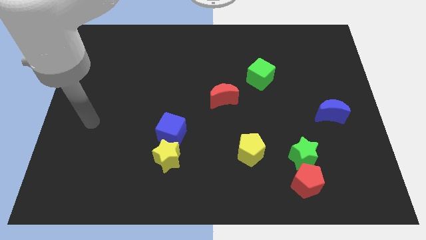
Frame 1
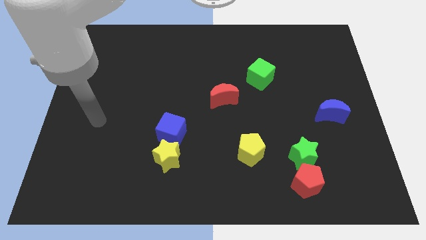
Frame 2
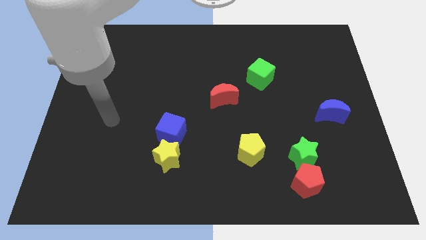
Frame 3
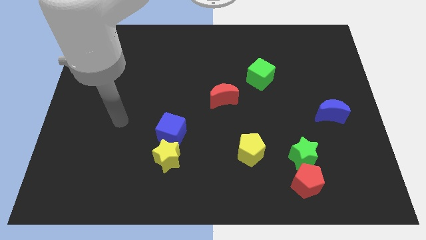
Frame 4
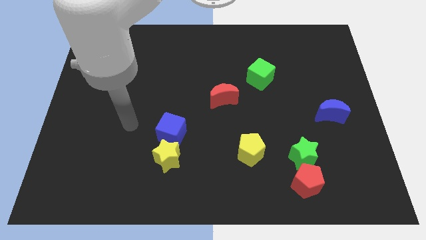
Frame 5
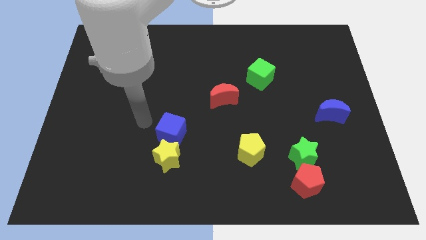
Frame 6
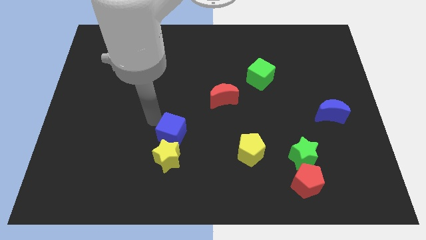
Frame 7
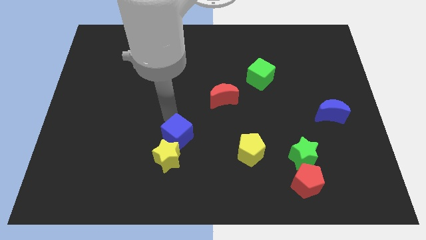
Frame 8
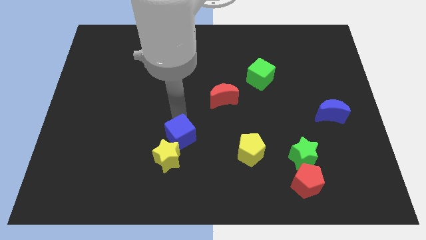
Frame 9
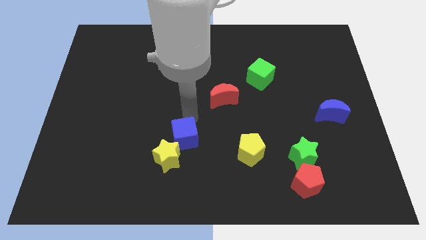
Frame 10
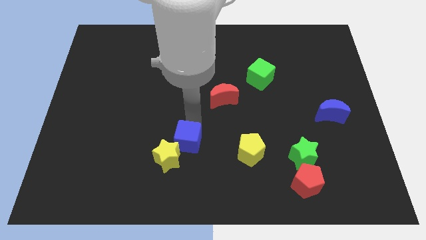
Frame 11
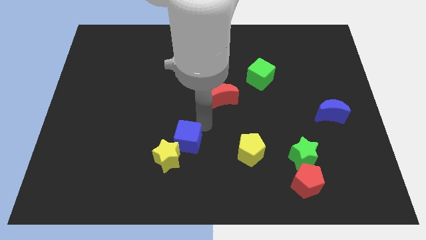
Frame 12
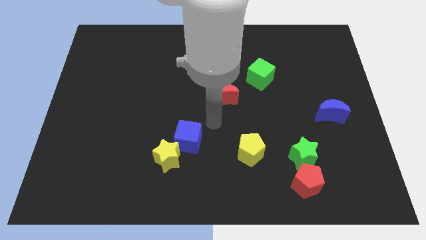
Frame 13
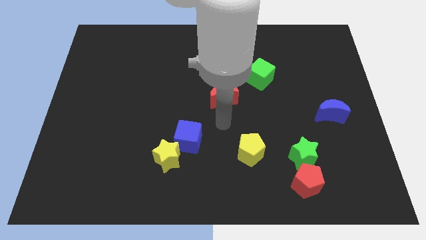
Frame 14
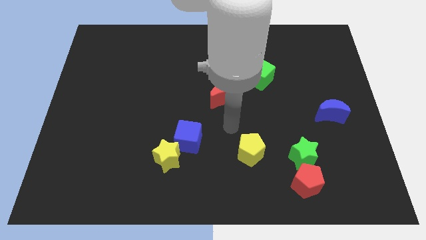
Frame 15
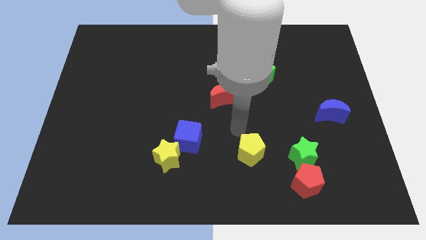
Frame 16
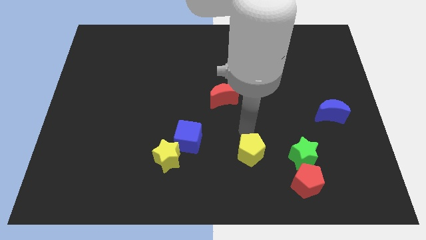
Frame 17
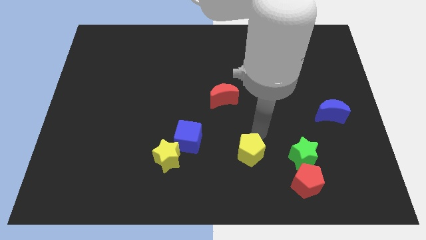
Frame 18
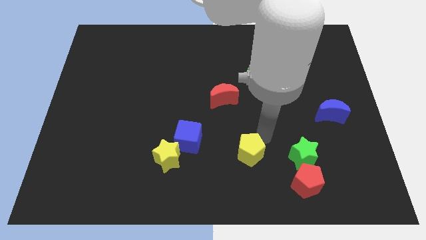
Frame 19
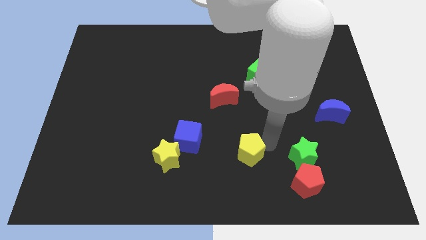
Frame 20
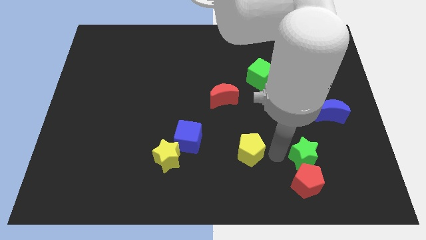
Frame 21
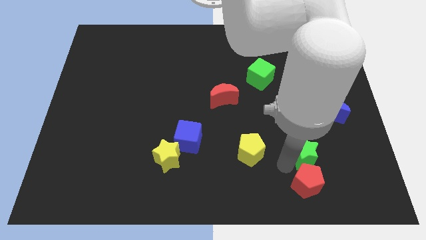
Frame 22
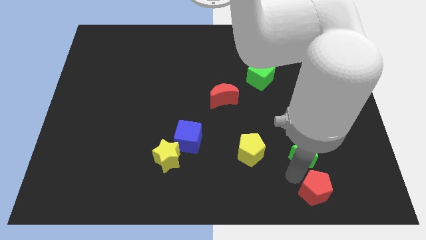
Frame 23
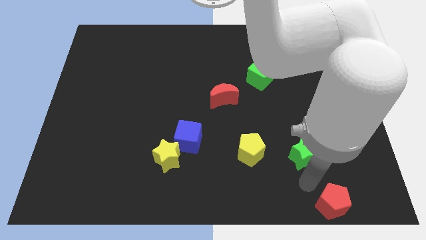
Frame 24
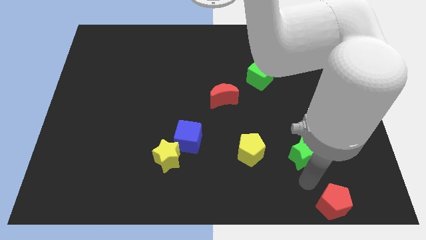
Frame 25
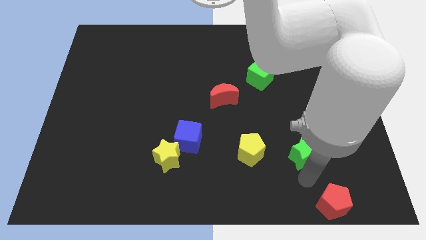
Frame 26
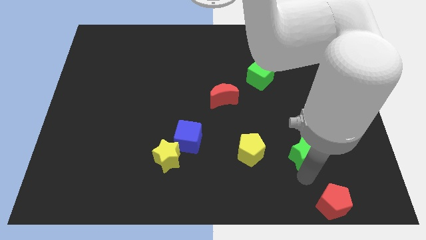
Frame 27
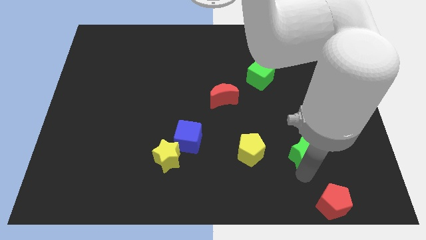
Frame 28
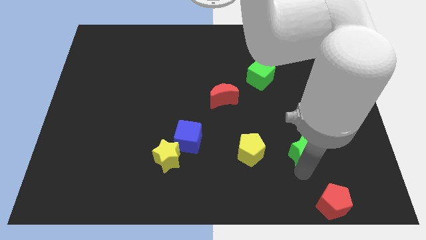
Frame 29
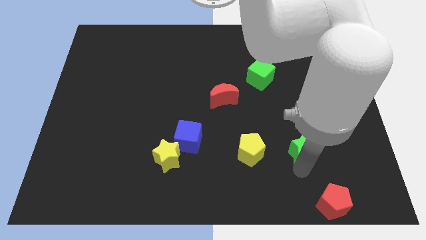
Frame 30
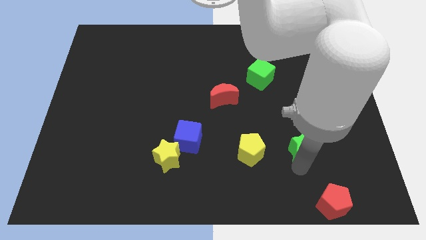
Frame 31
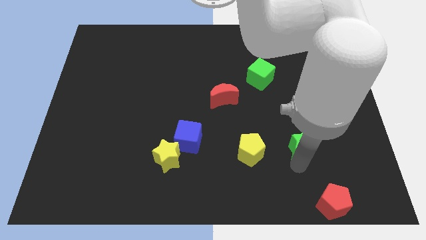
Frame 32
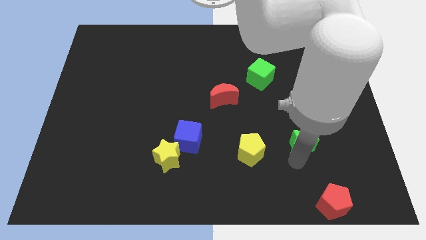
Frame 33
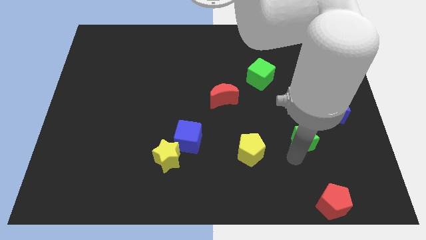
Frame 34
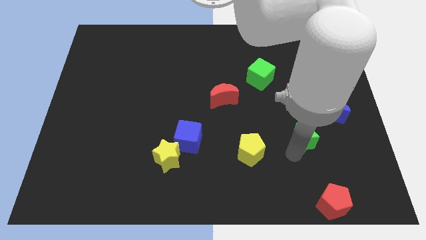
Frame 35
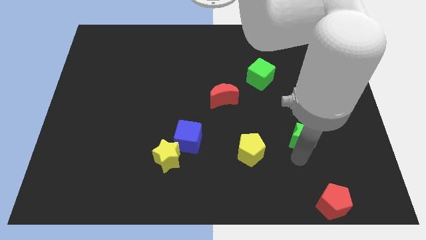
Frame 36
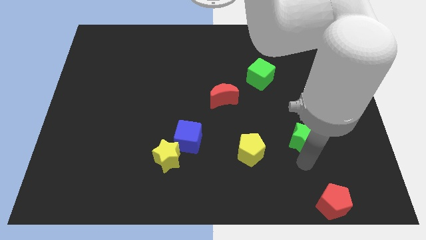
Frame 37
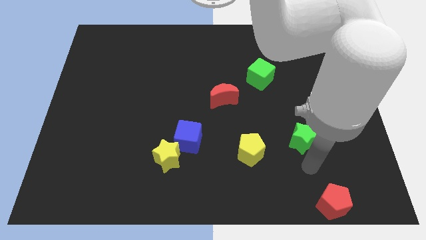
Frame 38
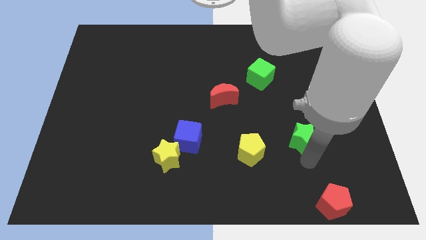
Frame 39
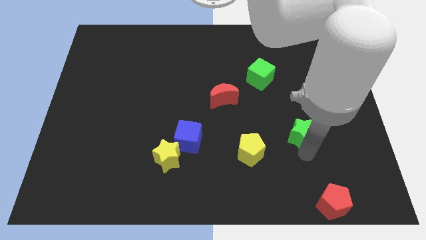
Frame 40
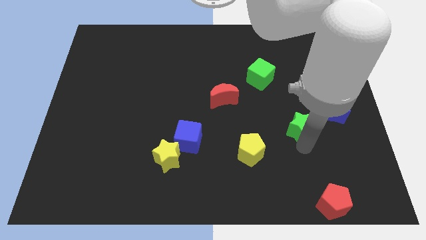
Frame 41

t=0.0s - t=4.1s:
move the green star upwards a little

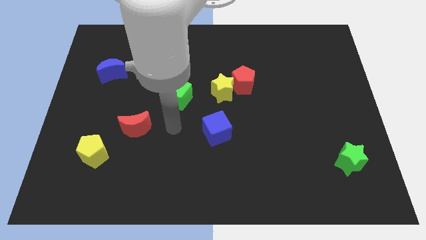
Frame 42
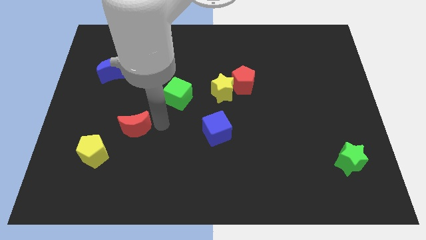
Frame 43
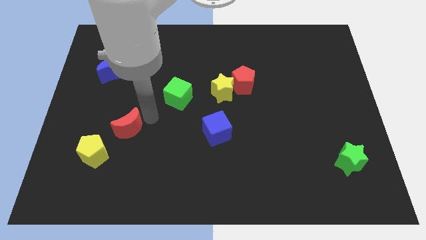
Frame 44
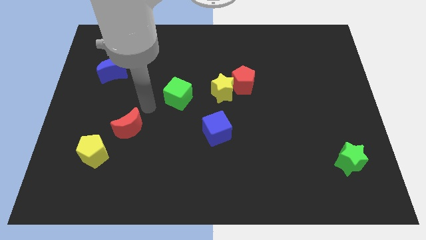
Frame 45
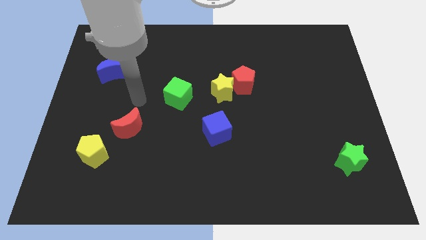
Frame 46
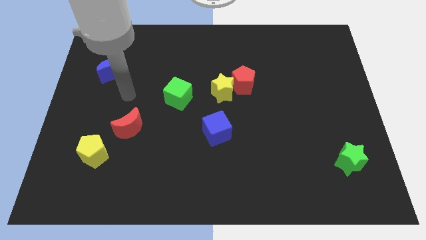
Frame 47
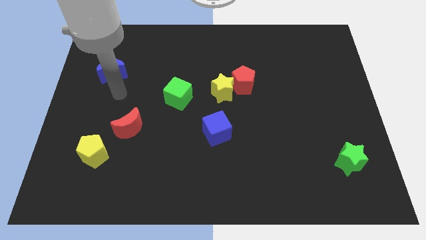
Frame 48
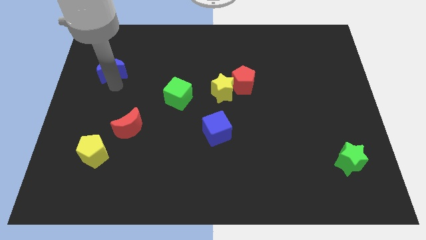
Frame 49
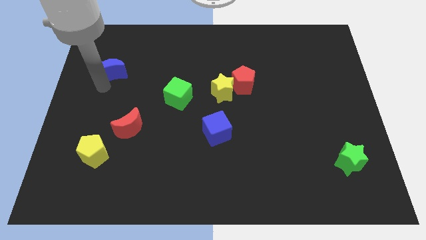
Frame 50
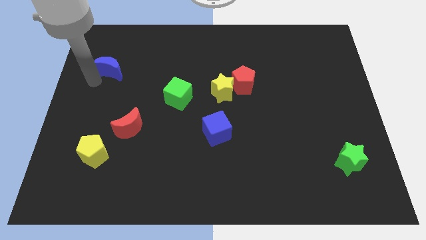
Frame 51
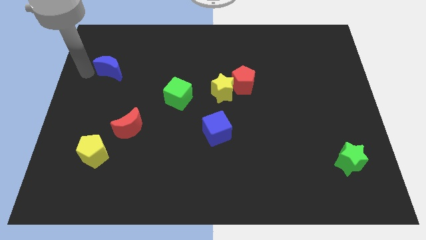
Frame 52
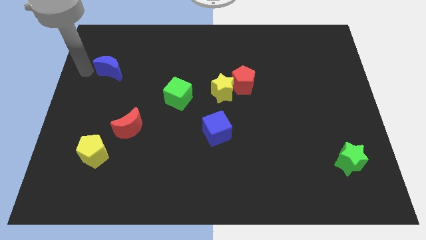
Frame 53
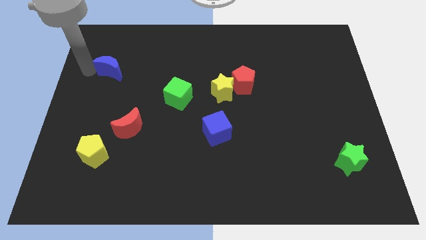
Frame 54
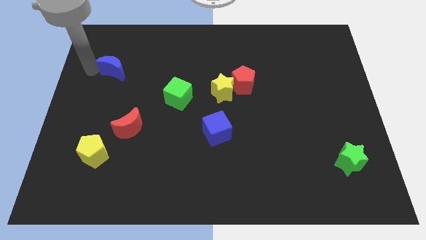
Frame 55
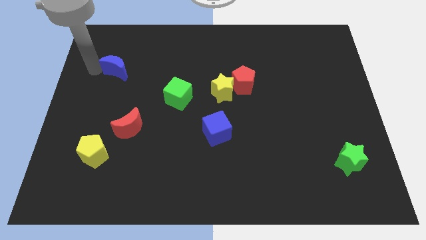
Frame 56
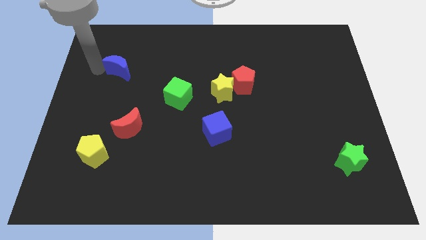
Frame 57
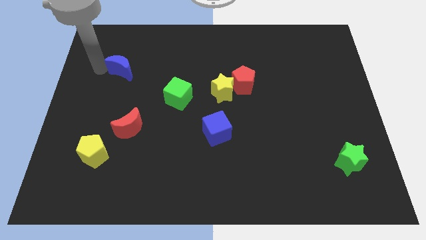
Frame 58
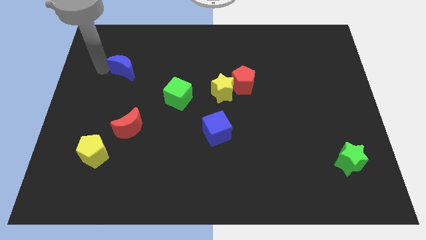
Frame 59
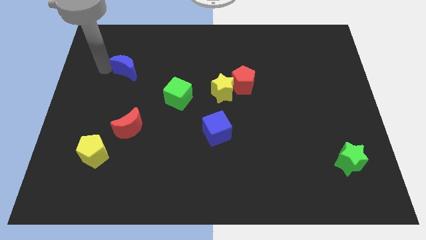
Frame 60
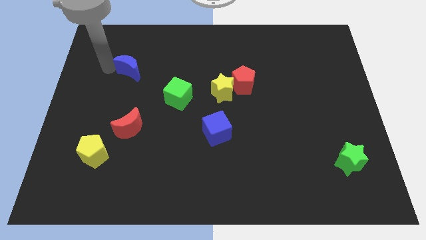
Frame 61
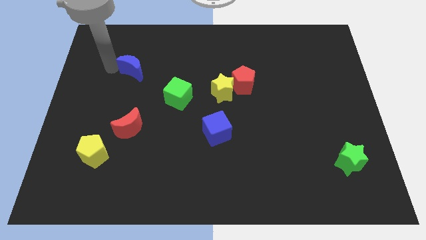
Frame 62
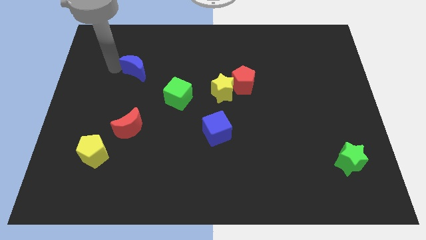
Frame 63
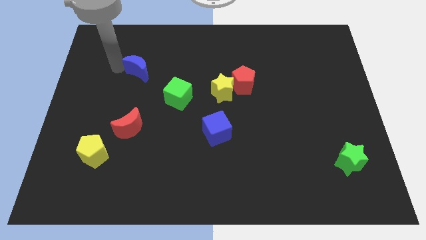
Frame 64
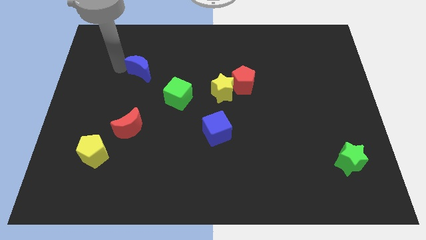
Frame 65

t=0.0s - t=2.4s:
move the blue moon a bit to the right

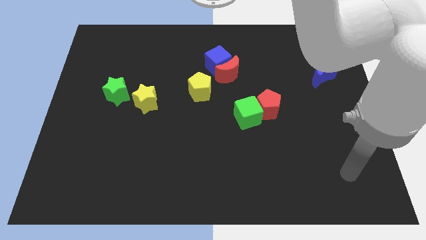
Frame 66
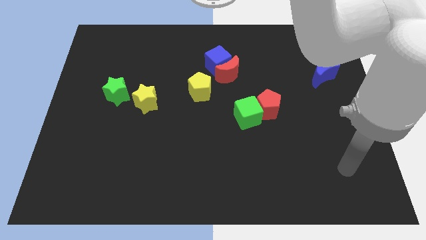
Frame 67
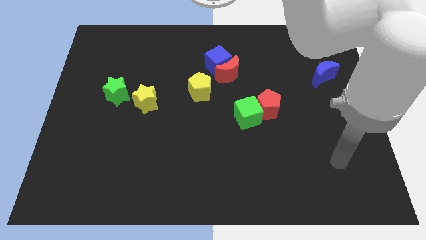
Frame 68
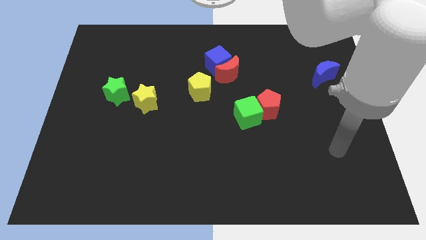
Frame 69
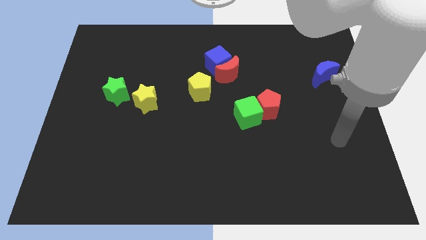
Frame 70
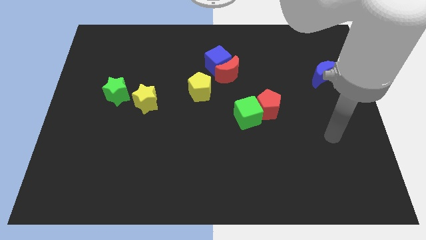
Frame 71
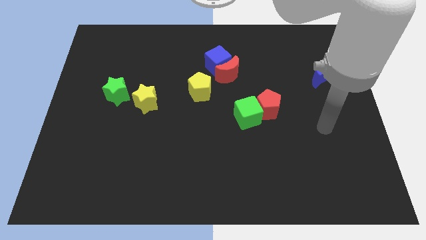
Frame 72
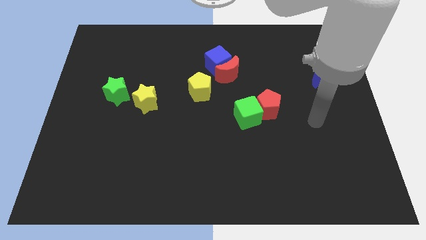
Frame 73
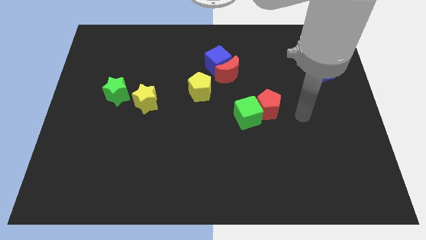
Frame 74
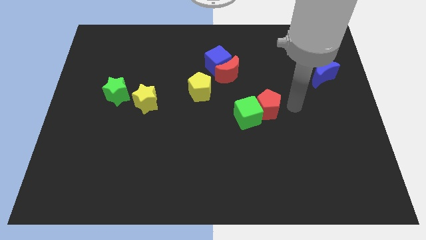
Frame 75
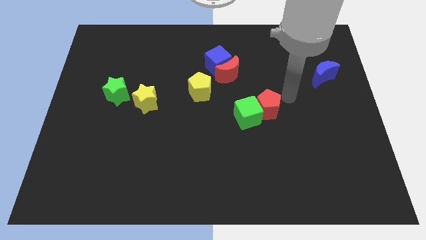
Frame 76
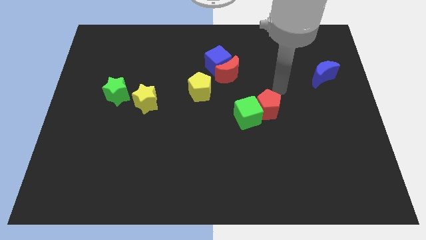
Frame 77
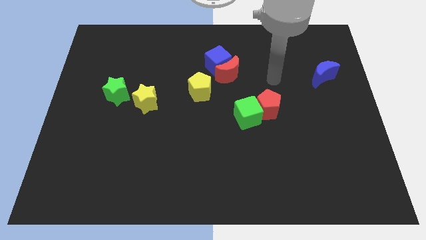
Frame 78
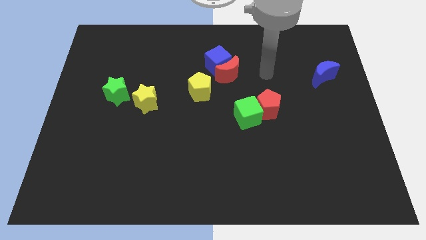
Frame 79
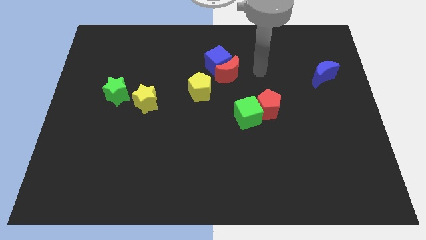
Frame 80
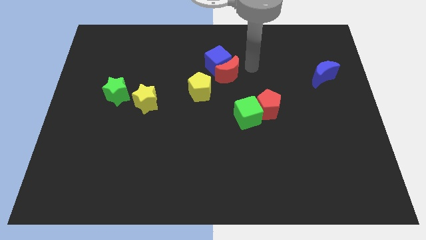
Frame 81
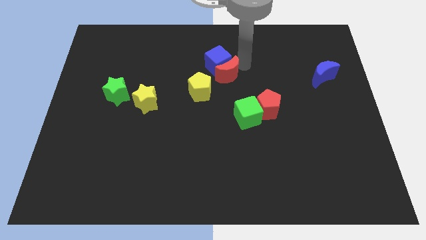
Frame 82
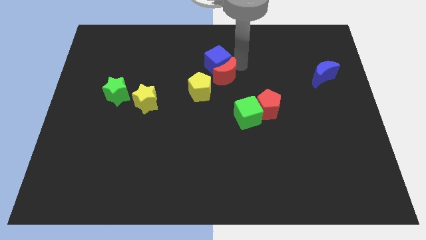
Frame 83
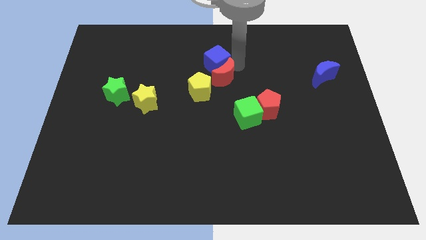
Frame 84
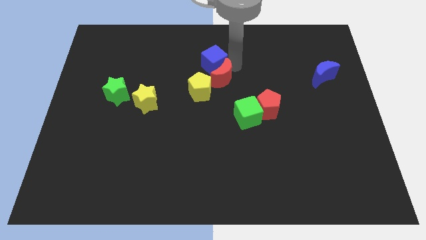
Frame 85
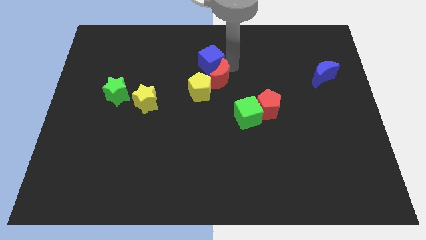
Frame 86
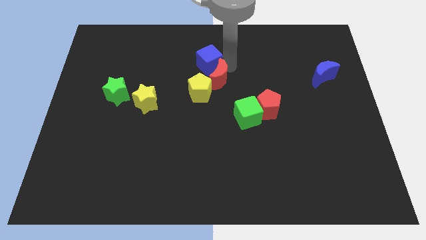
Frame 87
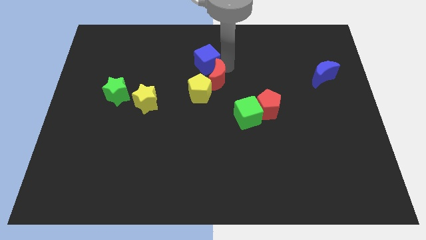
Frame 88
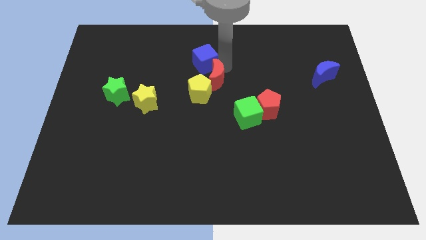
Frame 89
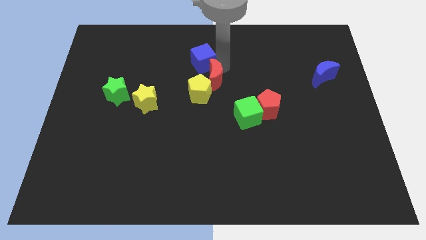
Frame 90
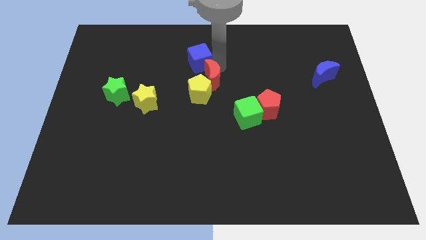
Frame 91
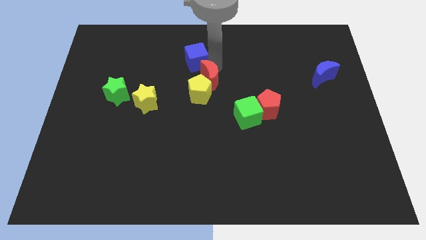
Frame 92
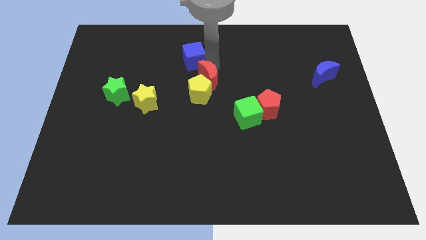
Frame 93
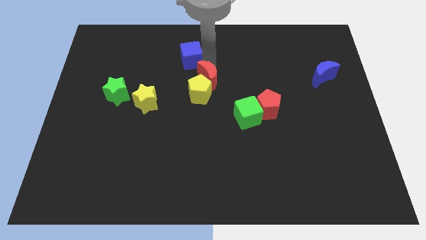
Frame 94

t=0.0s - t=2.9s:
move the blue cube to the left a bit
